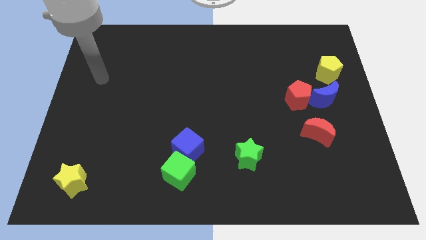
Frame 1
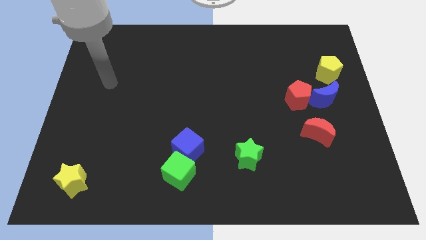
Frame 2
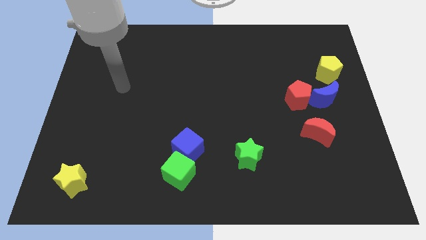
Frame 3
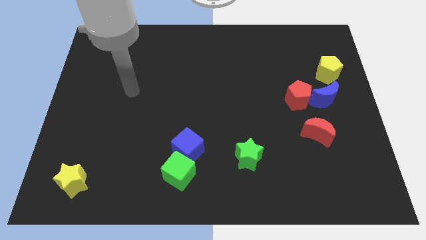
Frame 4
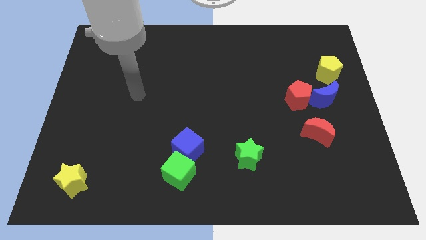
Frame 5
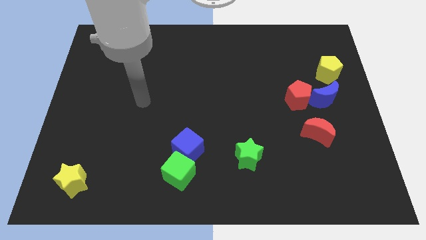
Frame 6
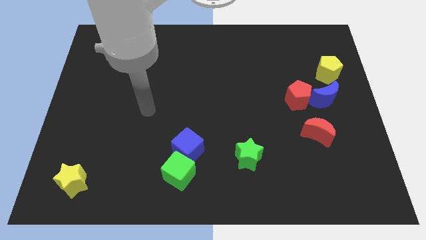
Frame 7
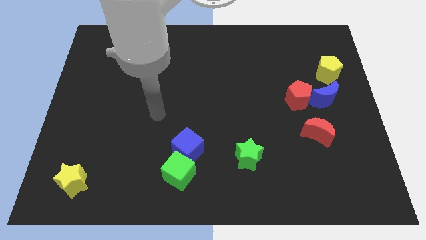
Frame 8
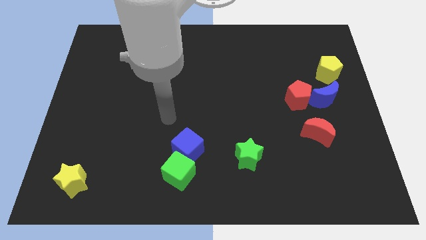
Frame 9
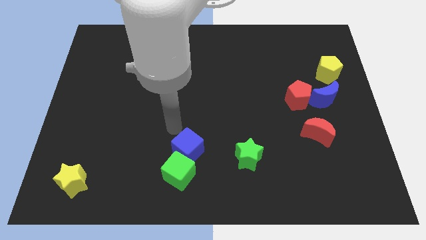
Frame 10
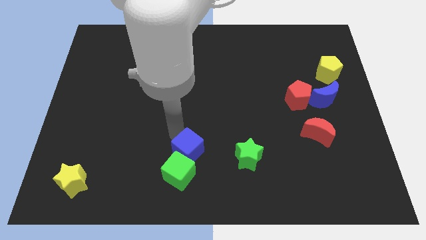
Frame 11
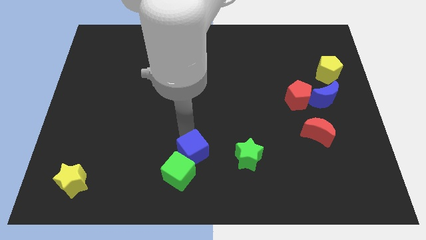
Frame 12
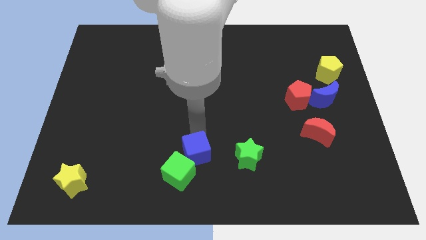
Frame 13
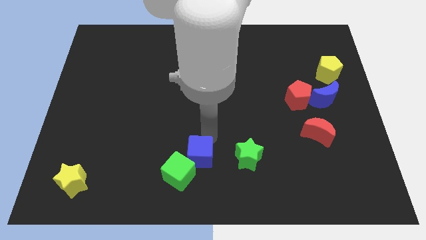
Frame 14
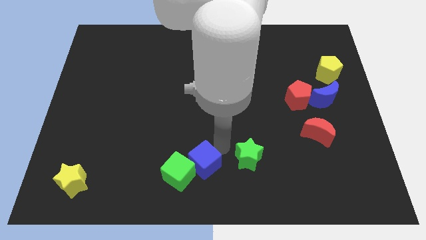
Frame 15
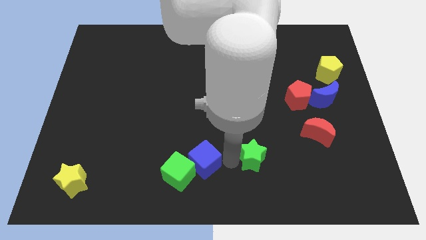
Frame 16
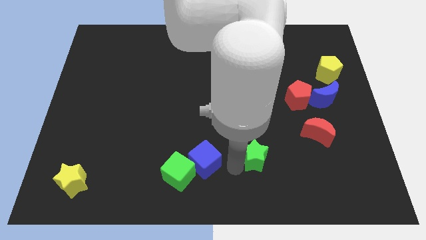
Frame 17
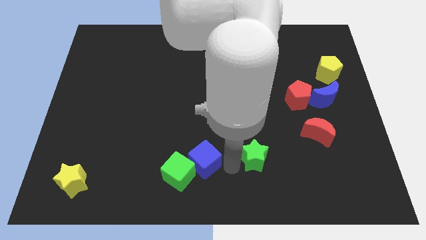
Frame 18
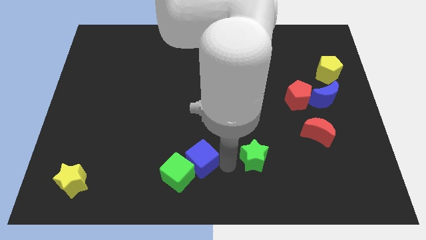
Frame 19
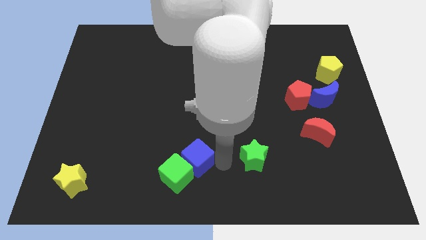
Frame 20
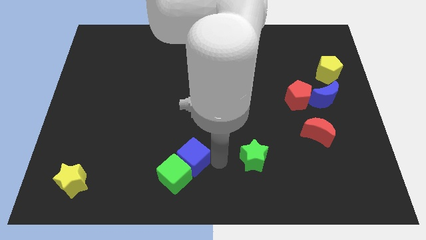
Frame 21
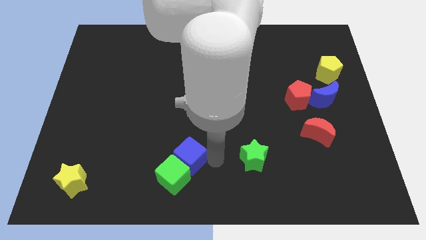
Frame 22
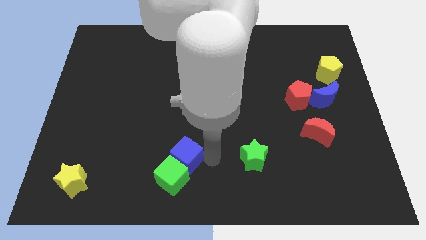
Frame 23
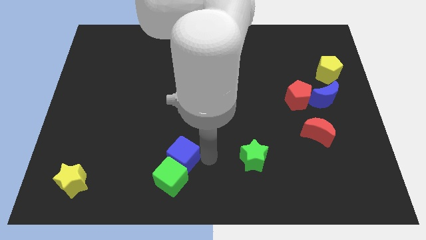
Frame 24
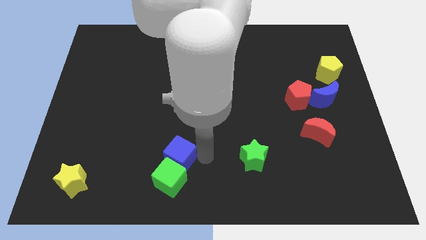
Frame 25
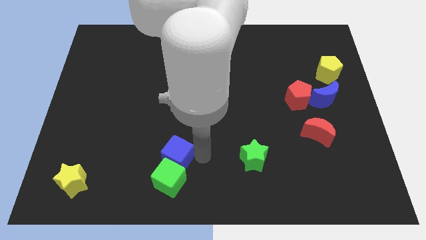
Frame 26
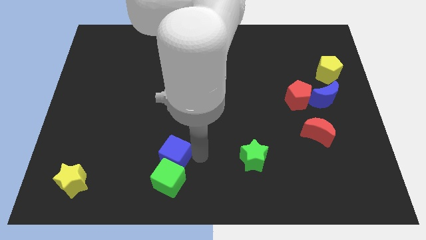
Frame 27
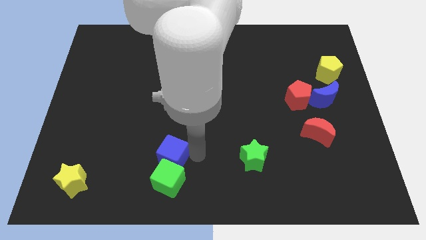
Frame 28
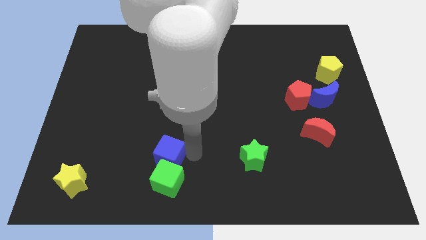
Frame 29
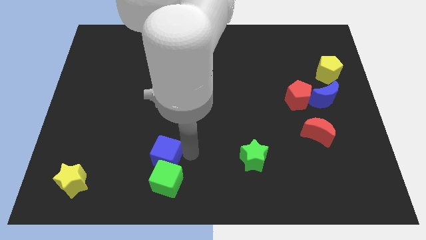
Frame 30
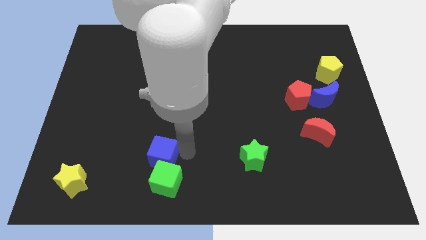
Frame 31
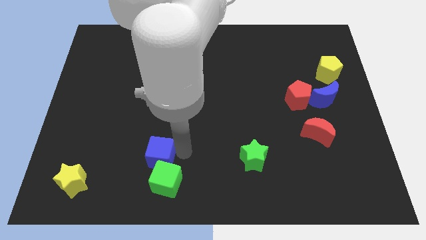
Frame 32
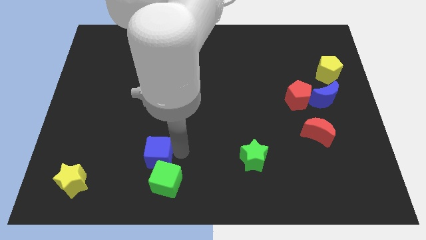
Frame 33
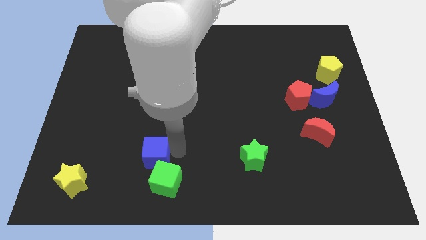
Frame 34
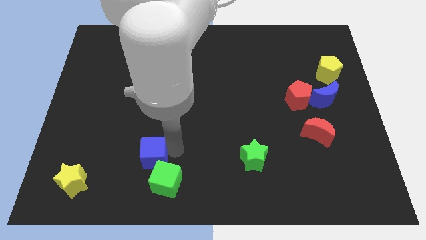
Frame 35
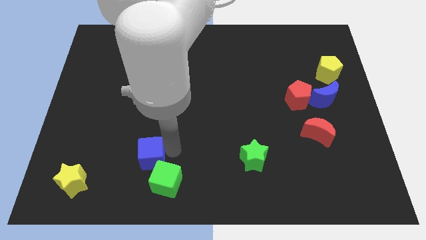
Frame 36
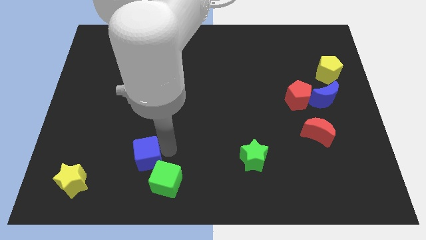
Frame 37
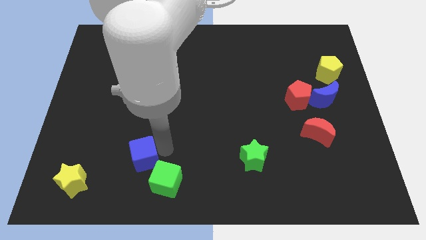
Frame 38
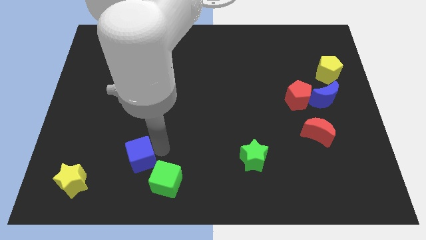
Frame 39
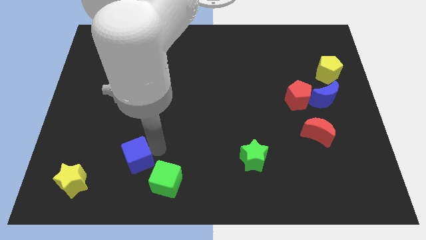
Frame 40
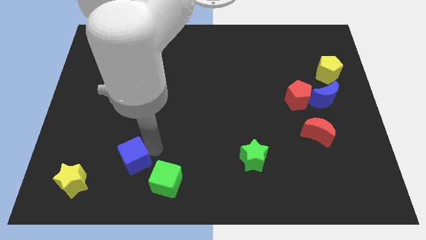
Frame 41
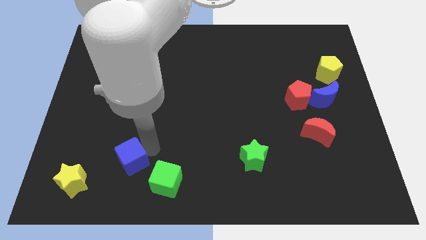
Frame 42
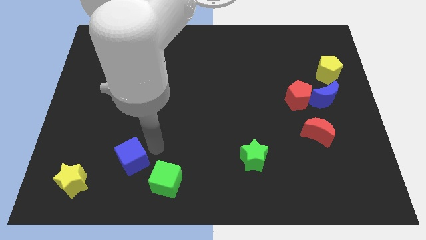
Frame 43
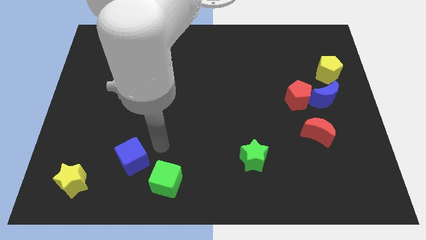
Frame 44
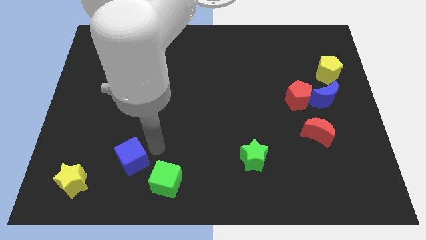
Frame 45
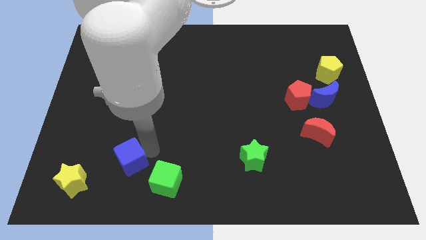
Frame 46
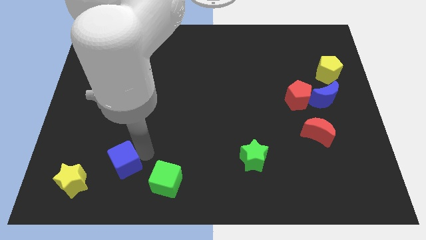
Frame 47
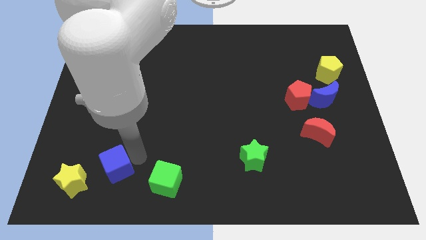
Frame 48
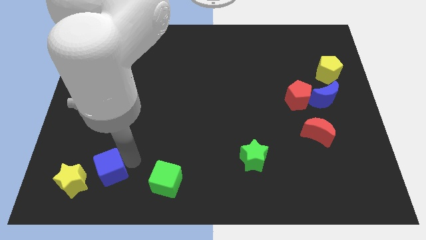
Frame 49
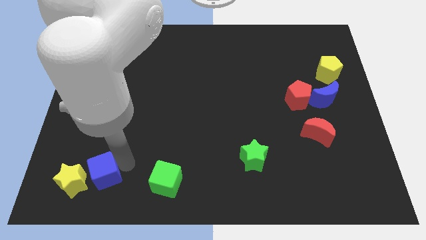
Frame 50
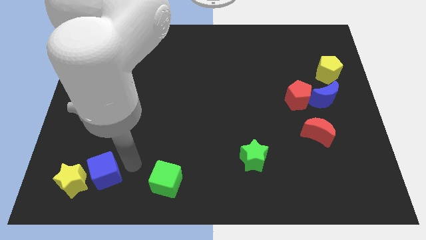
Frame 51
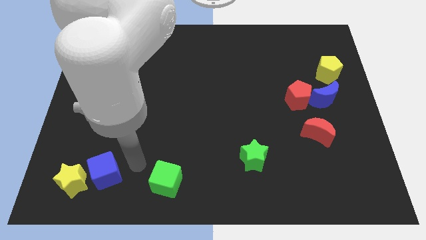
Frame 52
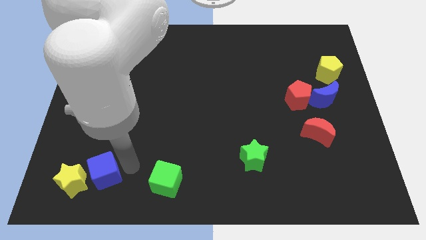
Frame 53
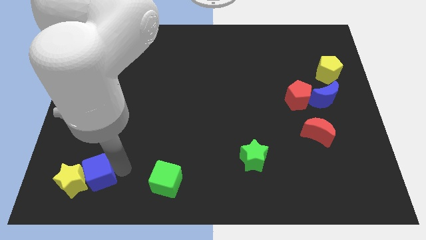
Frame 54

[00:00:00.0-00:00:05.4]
slide the blue cube close to the yellow star

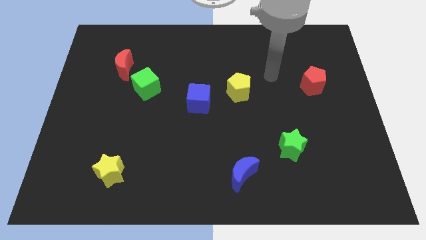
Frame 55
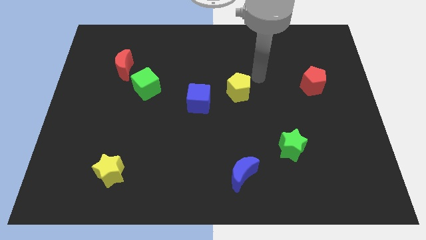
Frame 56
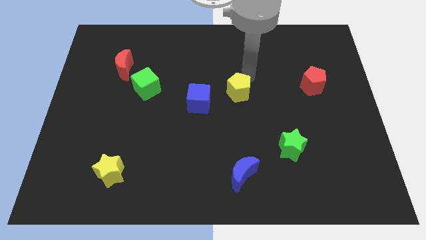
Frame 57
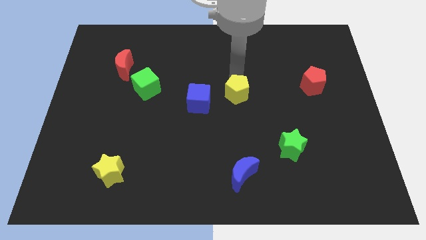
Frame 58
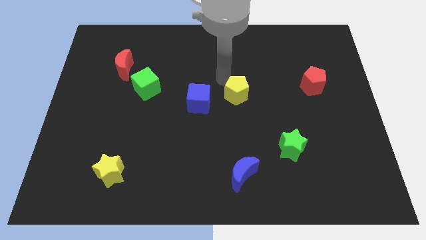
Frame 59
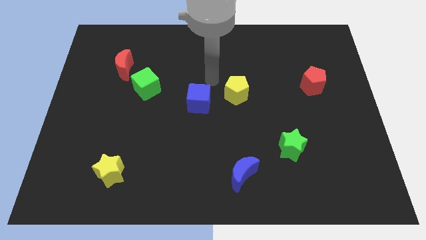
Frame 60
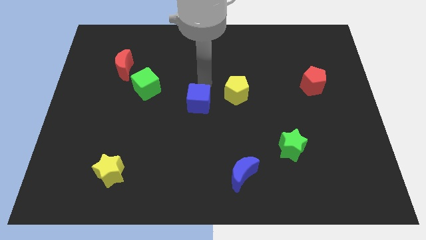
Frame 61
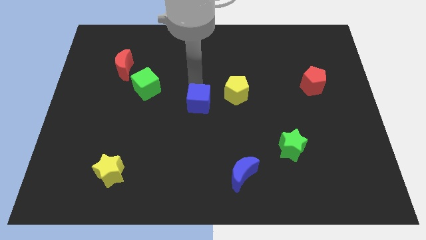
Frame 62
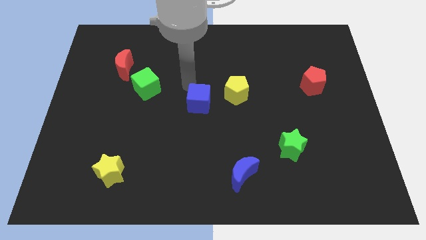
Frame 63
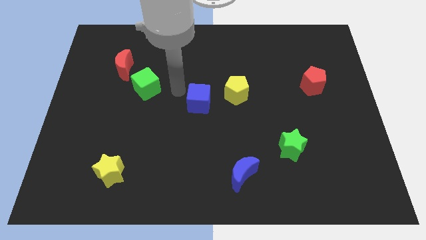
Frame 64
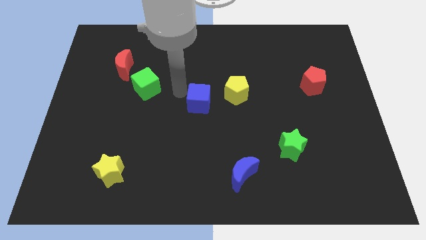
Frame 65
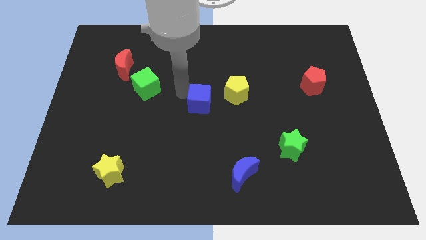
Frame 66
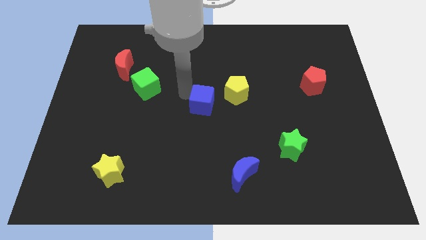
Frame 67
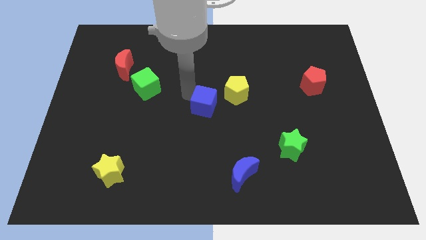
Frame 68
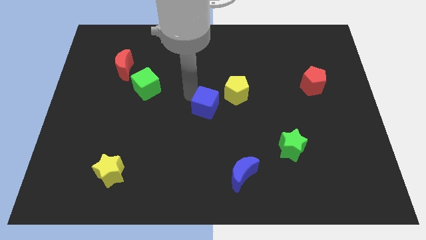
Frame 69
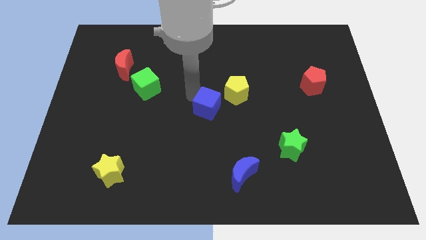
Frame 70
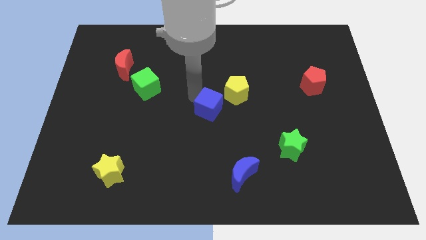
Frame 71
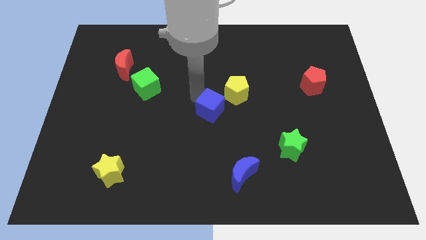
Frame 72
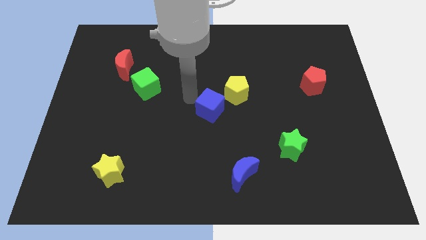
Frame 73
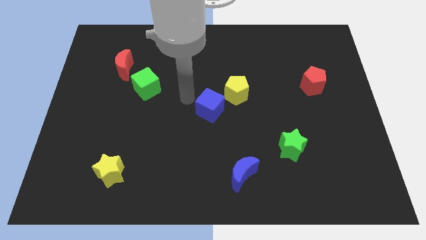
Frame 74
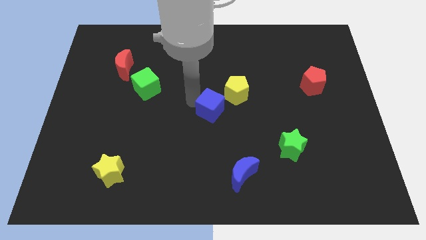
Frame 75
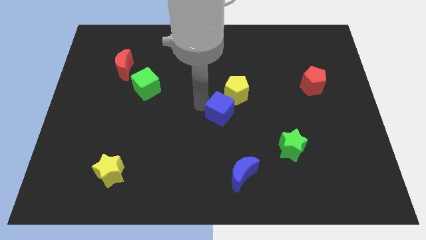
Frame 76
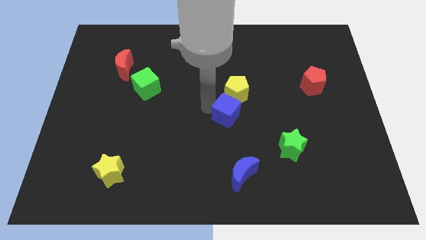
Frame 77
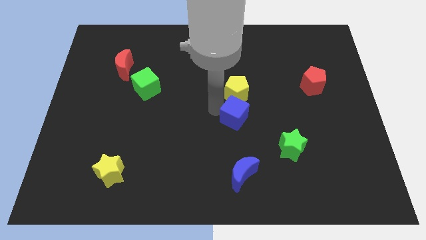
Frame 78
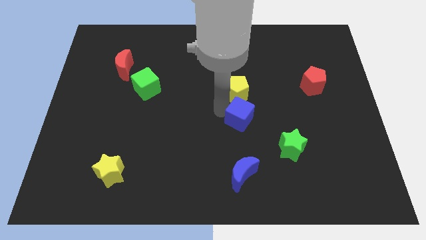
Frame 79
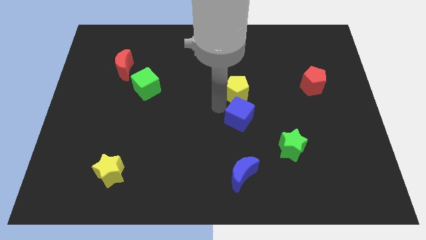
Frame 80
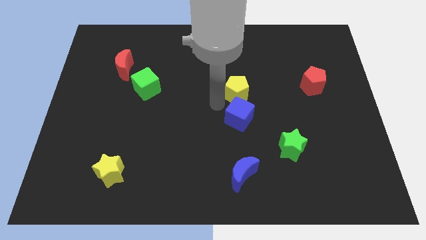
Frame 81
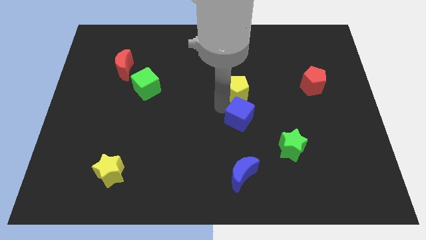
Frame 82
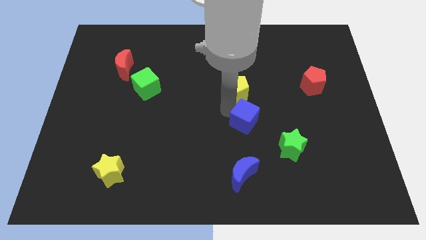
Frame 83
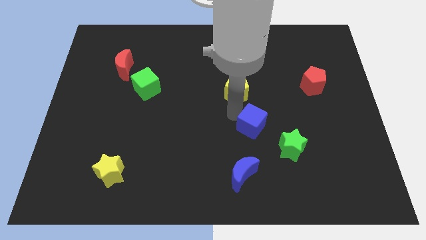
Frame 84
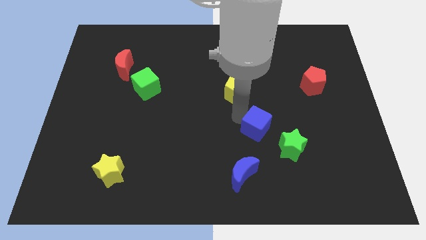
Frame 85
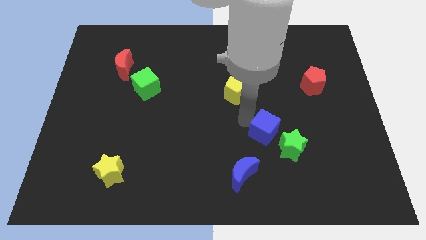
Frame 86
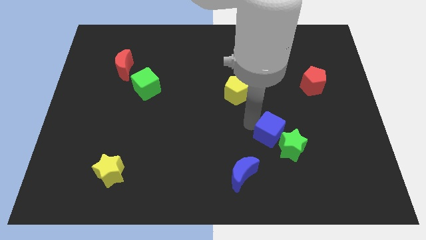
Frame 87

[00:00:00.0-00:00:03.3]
slide the blue cube to the green star
